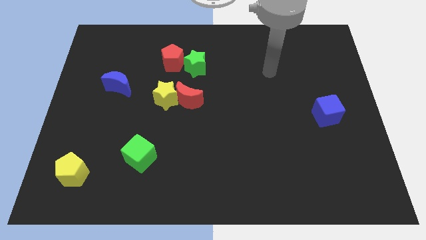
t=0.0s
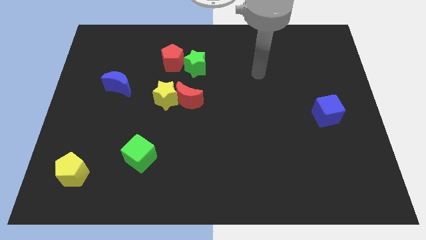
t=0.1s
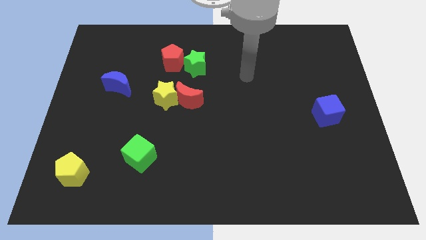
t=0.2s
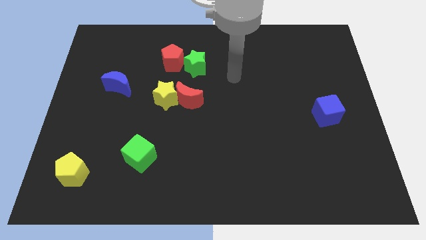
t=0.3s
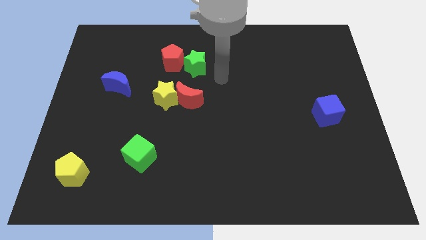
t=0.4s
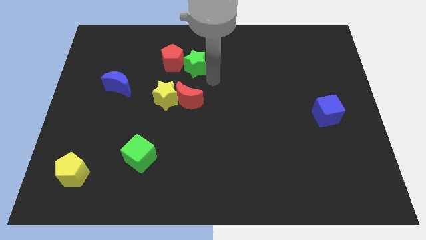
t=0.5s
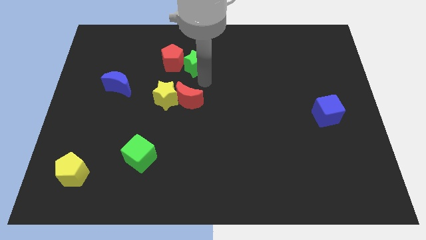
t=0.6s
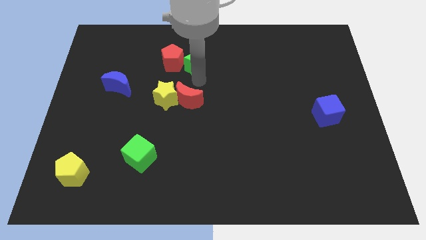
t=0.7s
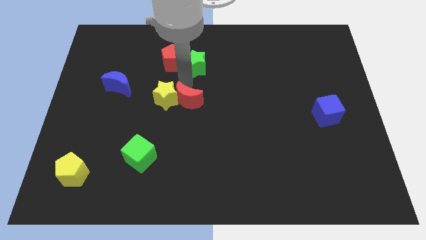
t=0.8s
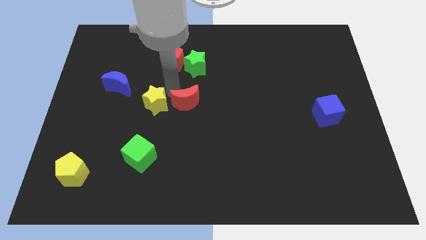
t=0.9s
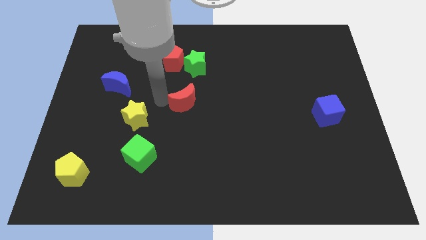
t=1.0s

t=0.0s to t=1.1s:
move the red moon away from the yellow star

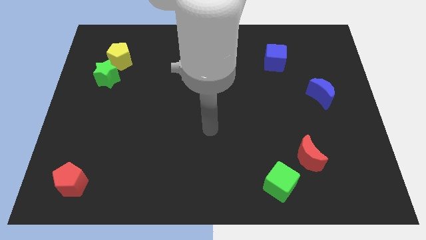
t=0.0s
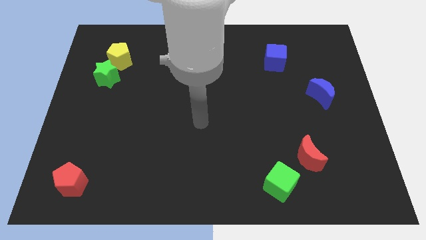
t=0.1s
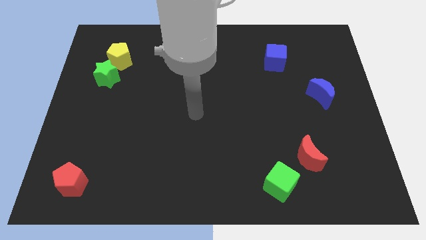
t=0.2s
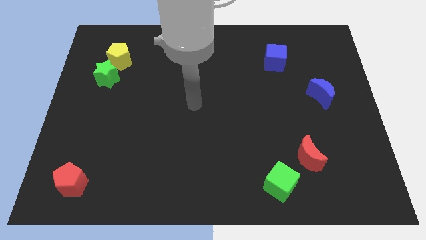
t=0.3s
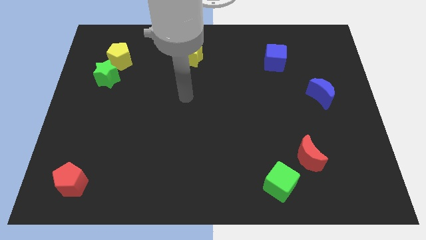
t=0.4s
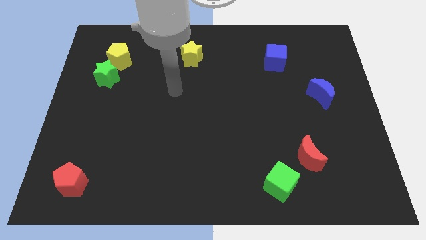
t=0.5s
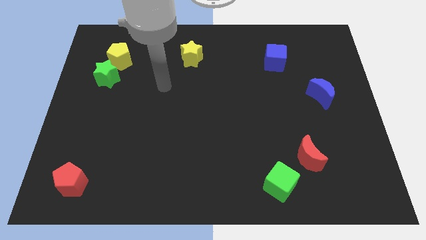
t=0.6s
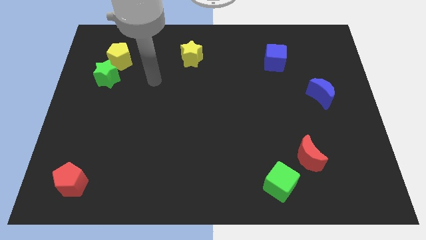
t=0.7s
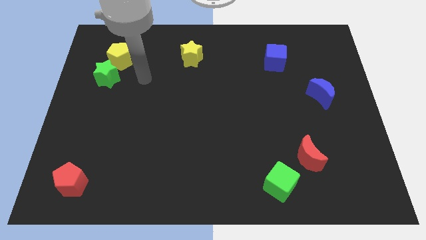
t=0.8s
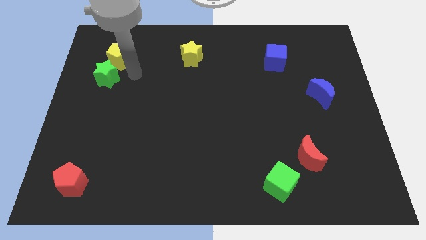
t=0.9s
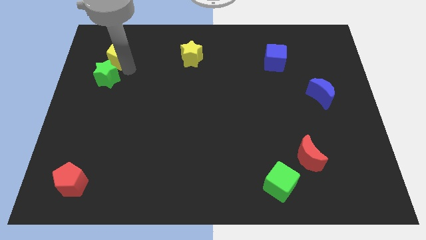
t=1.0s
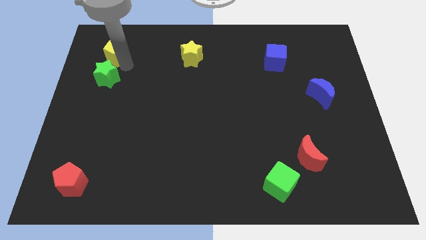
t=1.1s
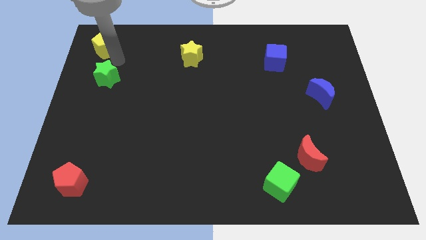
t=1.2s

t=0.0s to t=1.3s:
separate the green star from the yellow pentagon

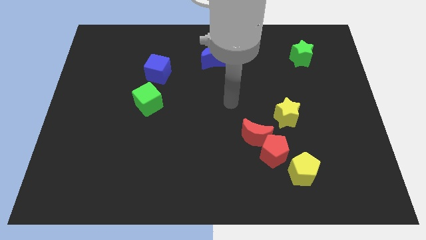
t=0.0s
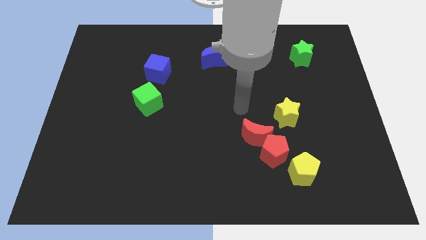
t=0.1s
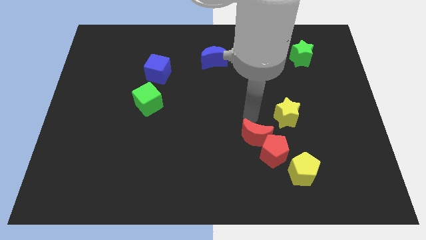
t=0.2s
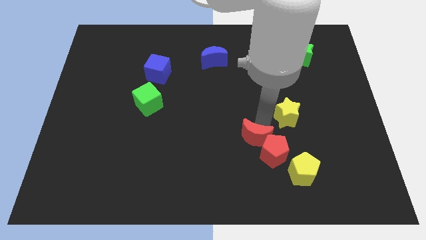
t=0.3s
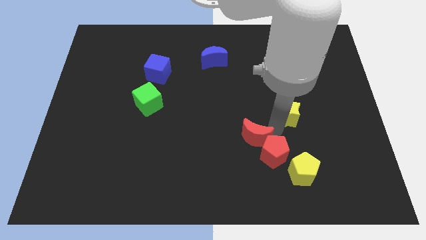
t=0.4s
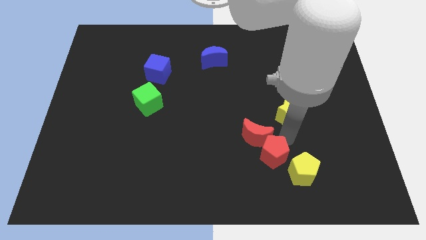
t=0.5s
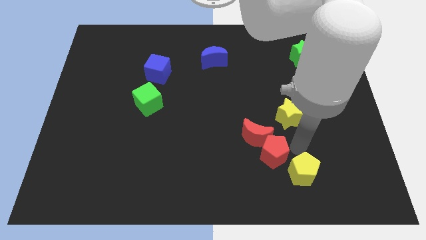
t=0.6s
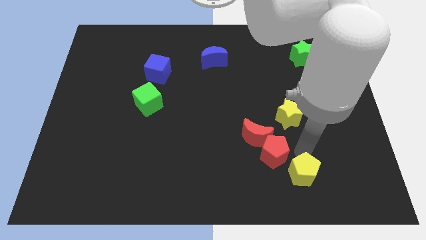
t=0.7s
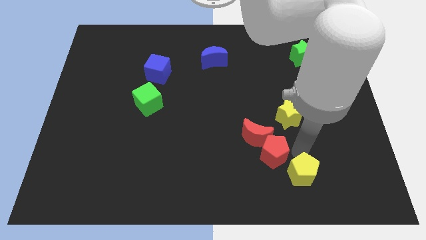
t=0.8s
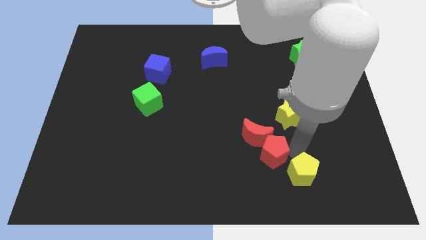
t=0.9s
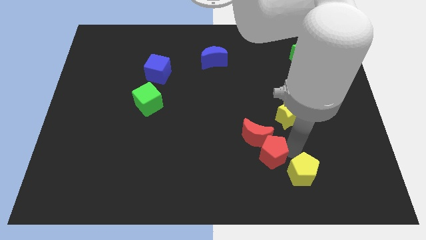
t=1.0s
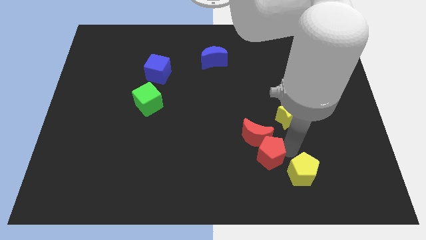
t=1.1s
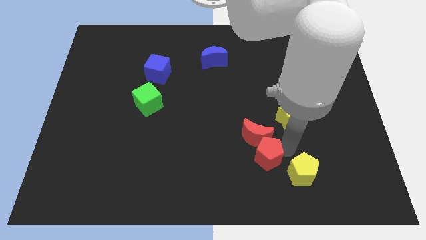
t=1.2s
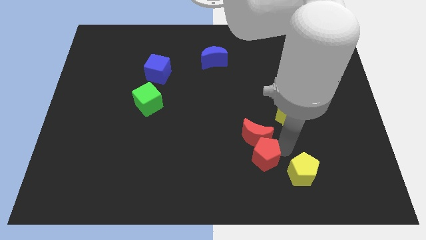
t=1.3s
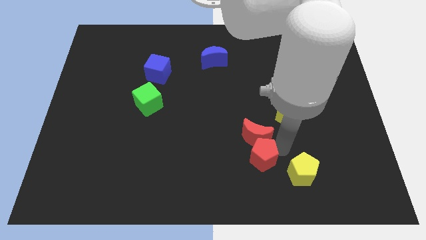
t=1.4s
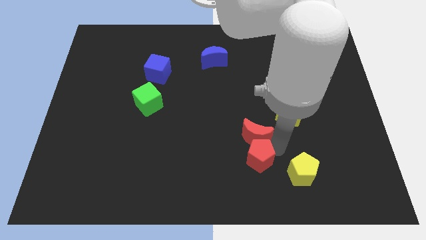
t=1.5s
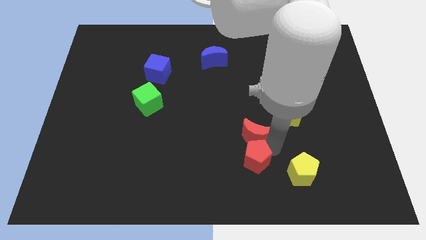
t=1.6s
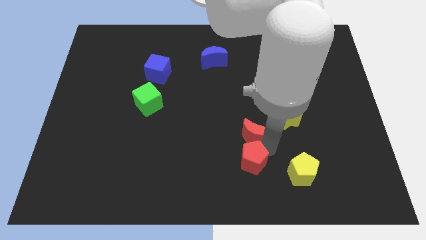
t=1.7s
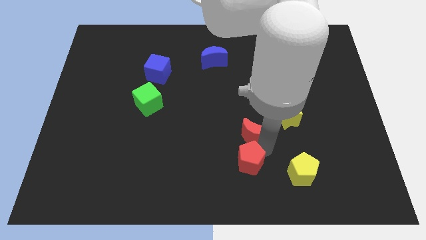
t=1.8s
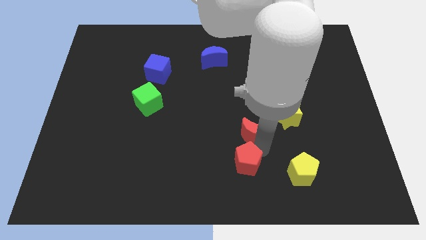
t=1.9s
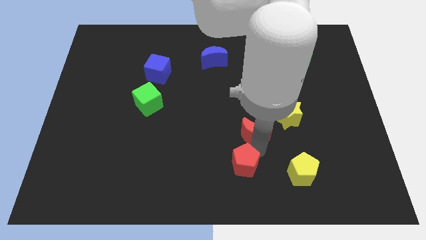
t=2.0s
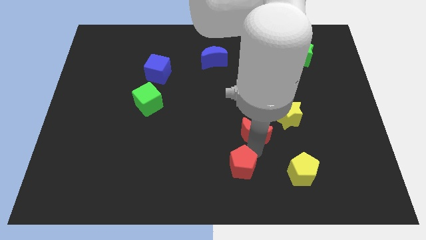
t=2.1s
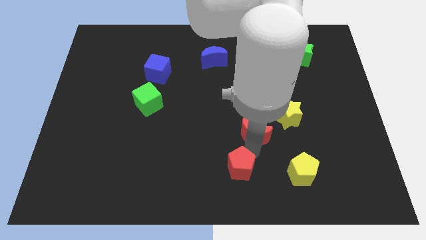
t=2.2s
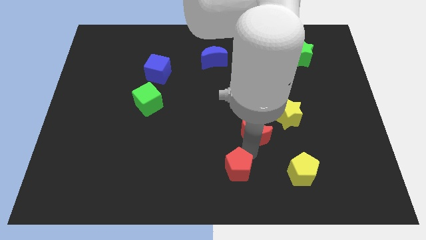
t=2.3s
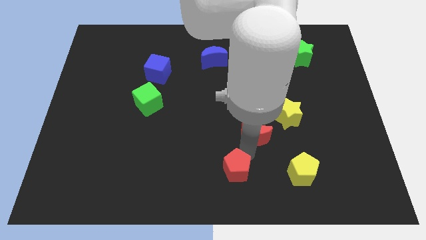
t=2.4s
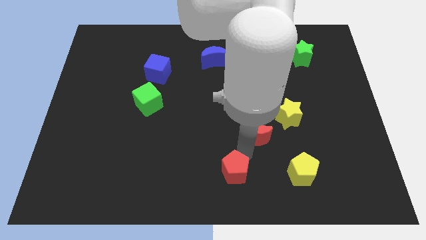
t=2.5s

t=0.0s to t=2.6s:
pull the red pentagon apart from the red moon and yellow pentagon

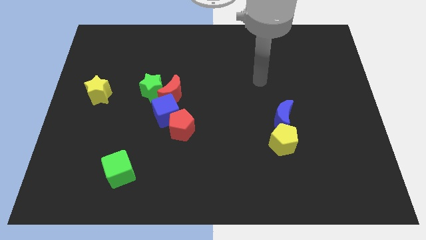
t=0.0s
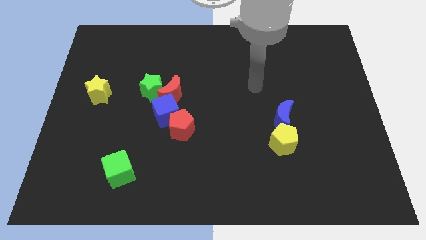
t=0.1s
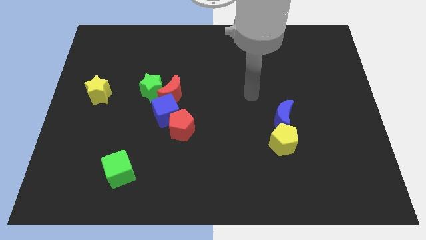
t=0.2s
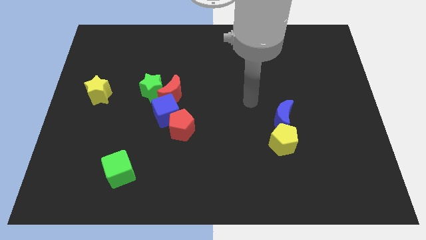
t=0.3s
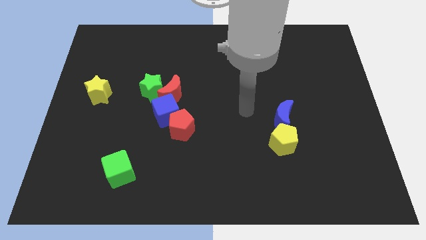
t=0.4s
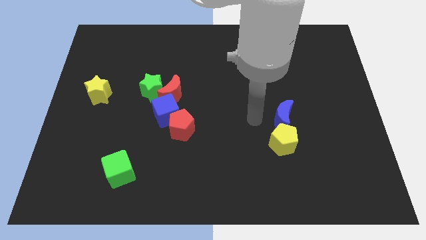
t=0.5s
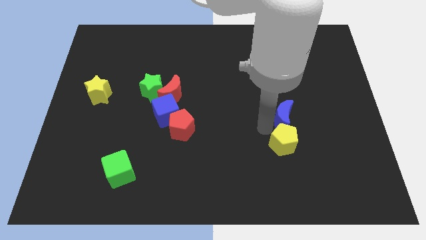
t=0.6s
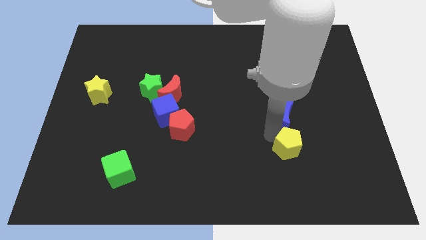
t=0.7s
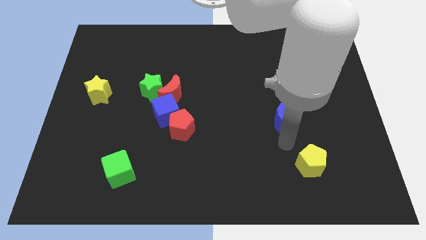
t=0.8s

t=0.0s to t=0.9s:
move the blue moon away from the yellow pentagon

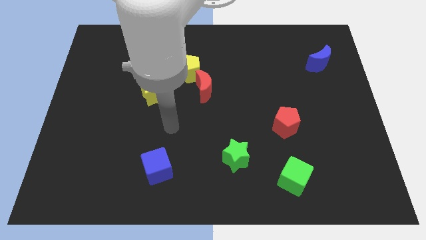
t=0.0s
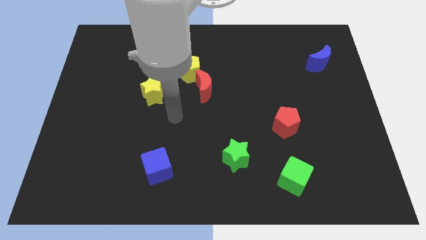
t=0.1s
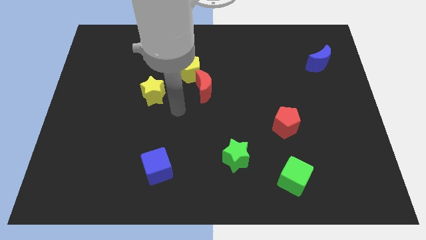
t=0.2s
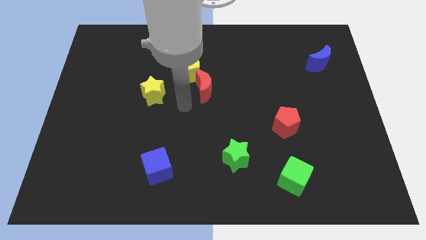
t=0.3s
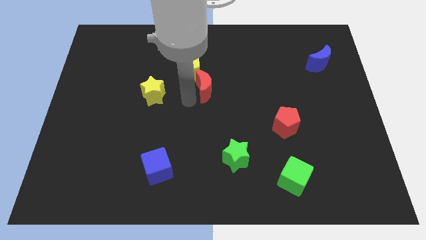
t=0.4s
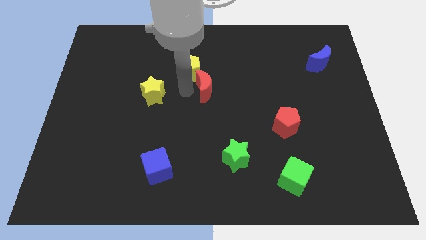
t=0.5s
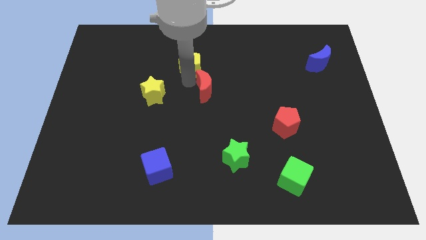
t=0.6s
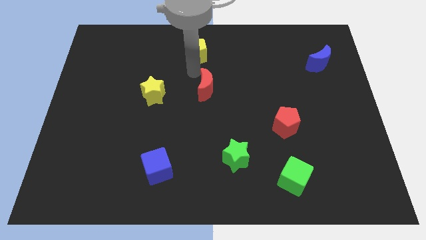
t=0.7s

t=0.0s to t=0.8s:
pull the red moon apart from the yellow pentagon

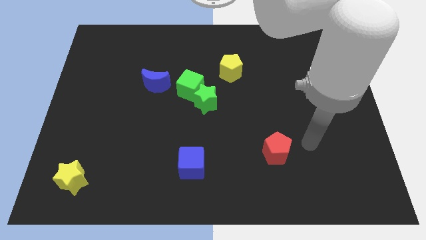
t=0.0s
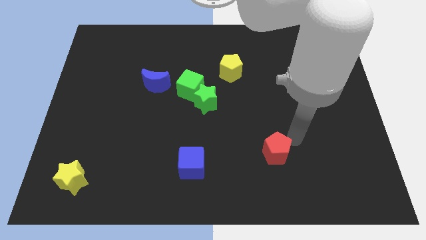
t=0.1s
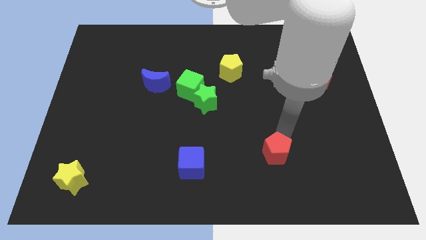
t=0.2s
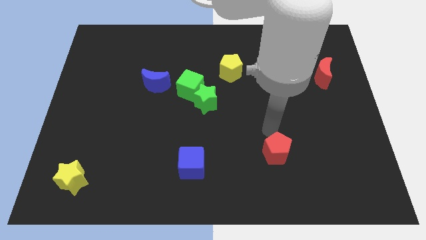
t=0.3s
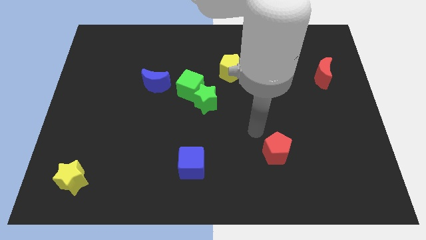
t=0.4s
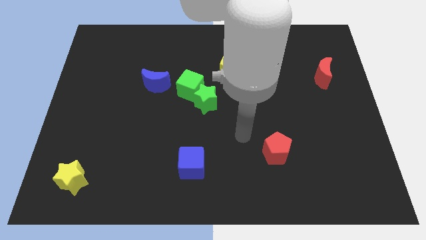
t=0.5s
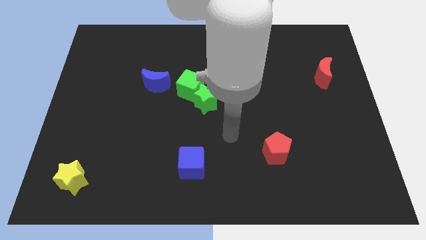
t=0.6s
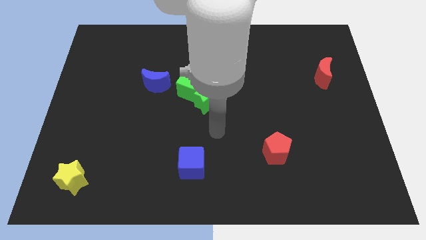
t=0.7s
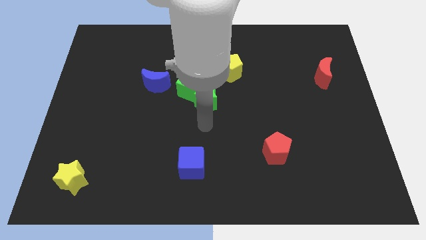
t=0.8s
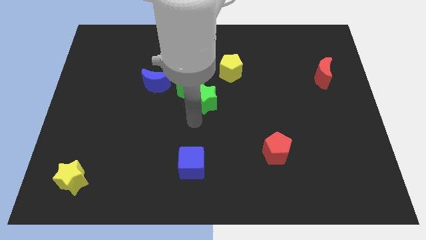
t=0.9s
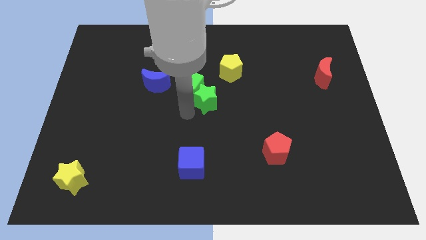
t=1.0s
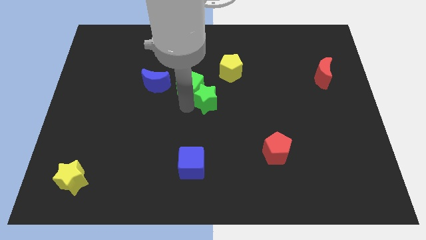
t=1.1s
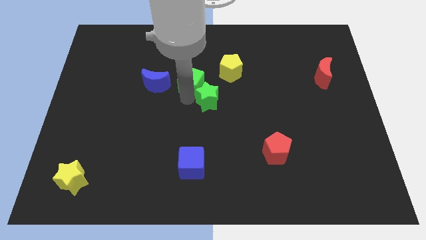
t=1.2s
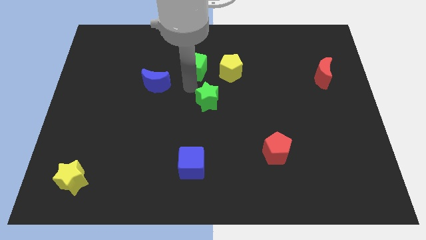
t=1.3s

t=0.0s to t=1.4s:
pull the green star apart from the green cube

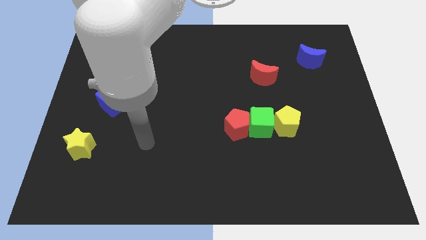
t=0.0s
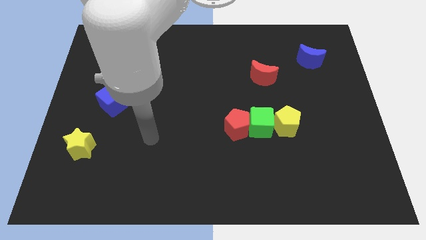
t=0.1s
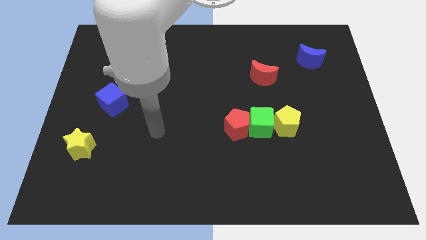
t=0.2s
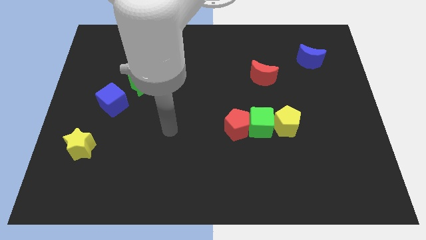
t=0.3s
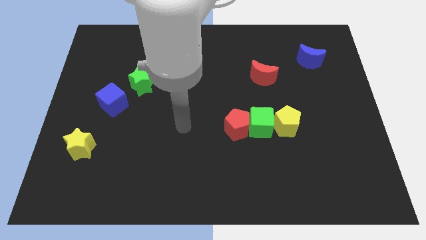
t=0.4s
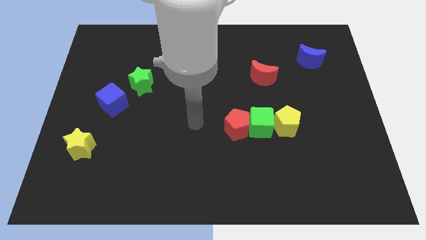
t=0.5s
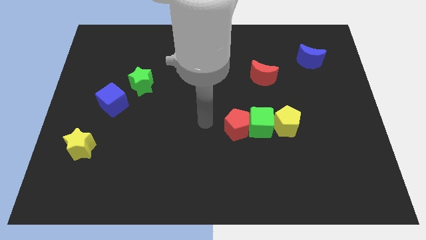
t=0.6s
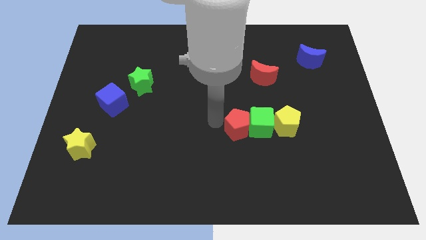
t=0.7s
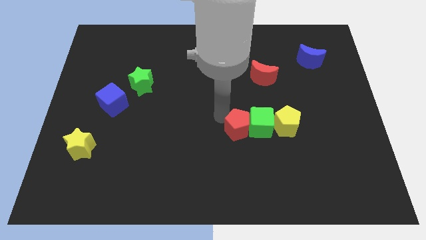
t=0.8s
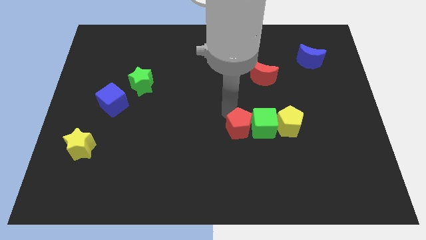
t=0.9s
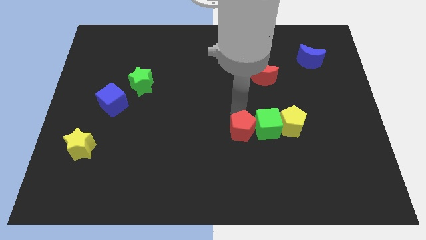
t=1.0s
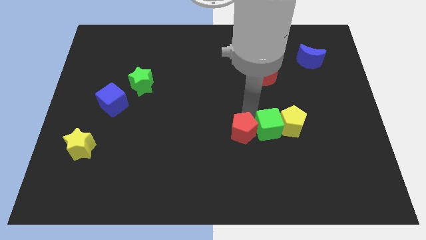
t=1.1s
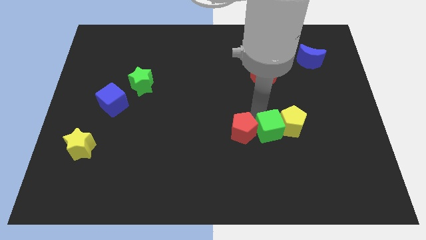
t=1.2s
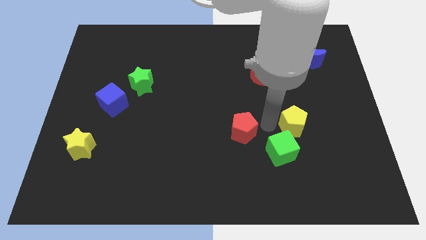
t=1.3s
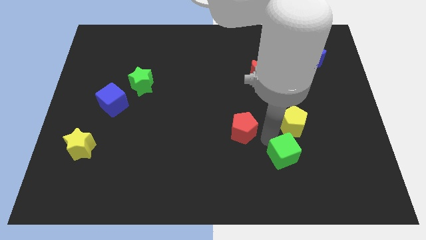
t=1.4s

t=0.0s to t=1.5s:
pull the red pentagon apart from the green cube
